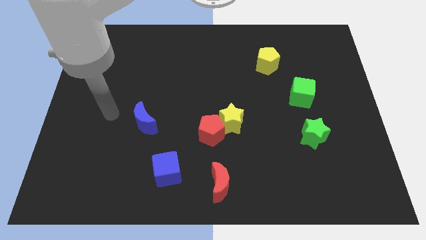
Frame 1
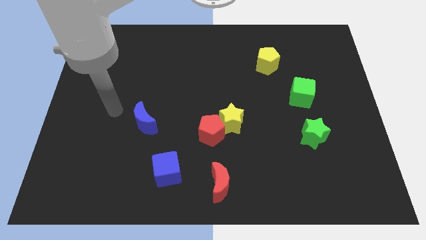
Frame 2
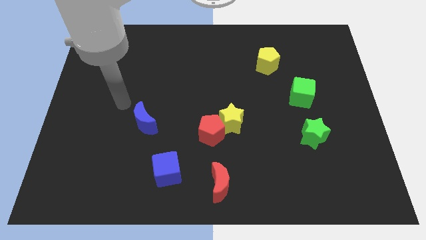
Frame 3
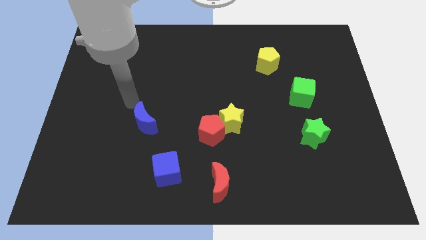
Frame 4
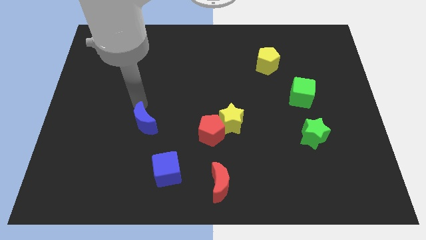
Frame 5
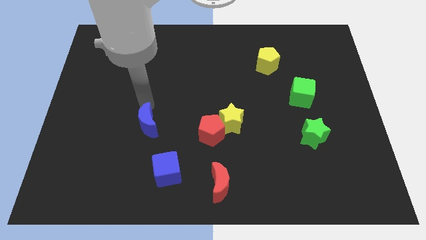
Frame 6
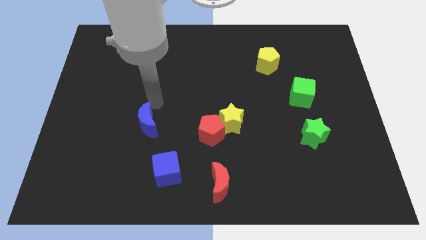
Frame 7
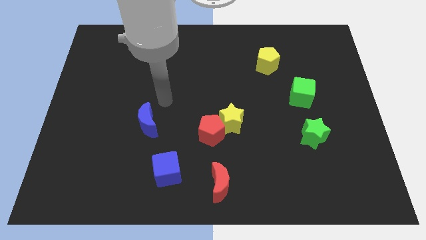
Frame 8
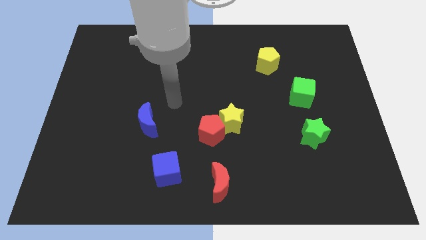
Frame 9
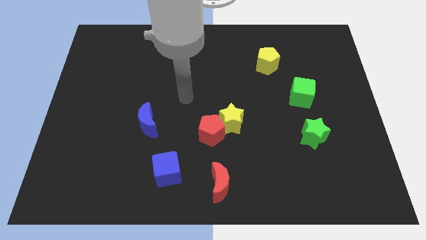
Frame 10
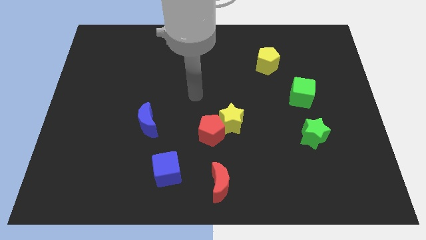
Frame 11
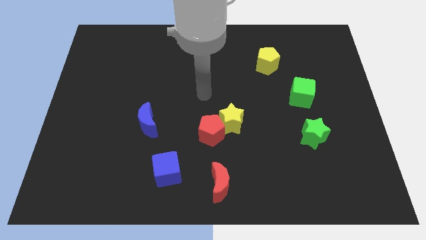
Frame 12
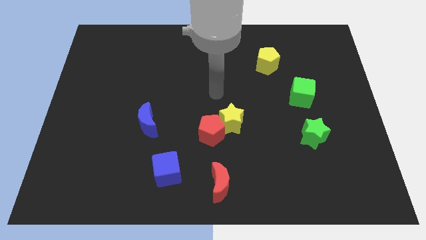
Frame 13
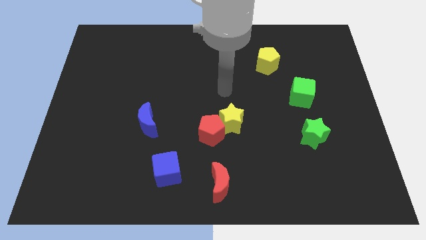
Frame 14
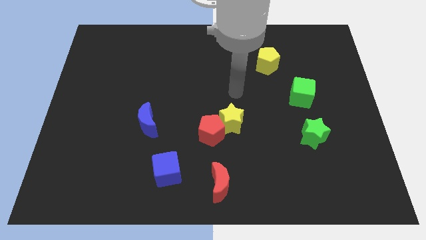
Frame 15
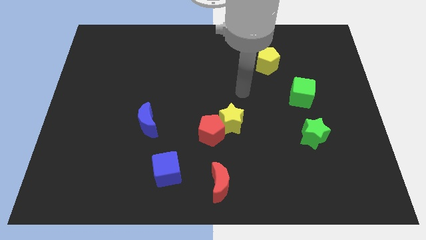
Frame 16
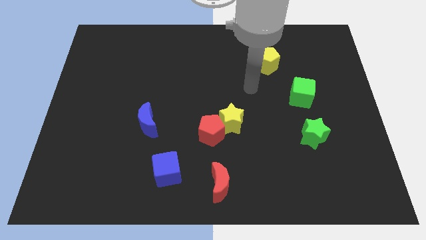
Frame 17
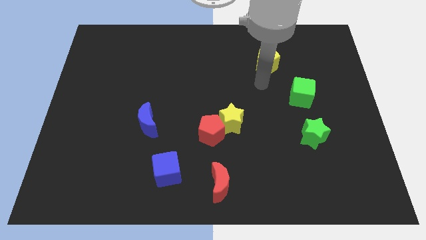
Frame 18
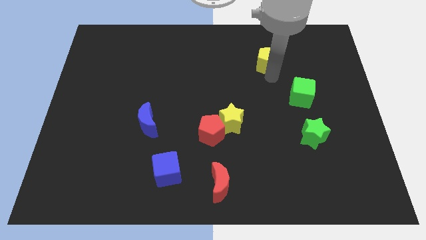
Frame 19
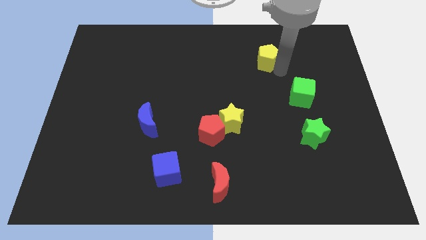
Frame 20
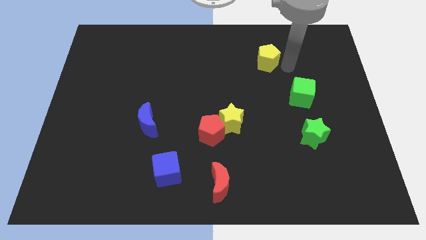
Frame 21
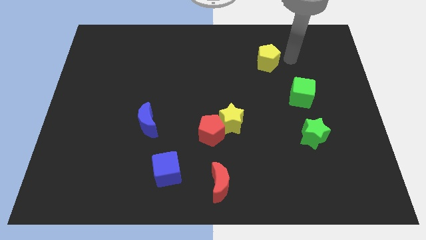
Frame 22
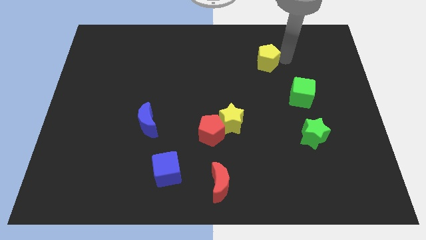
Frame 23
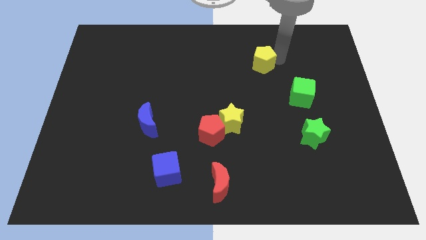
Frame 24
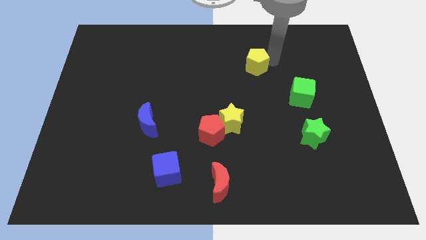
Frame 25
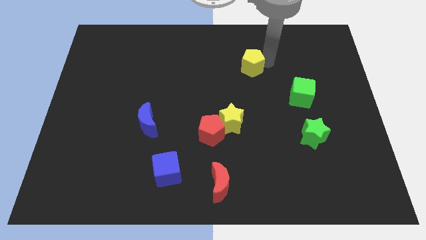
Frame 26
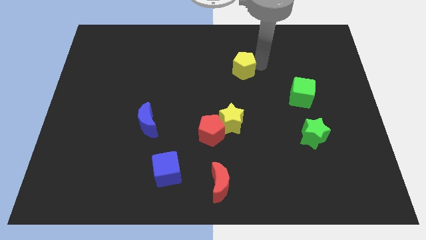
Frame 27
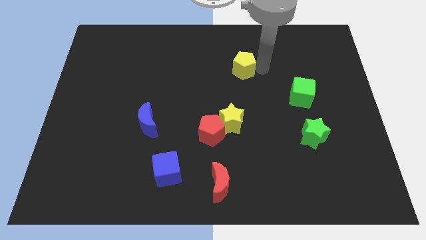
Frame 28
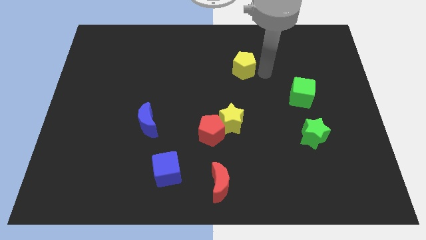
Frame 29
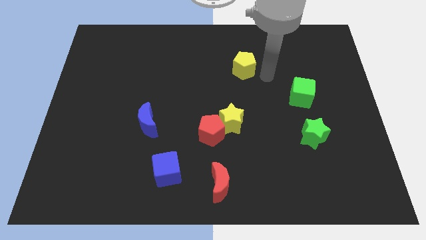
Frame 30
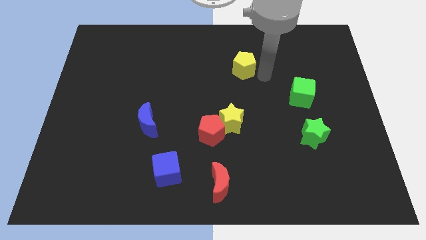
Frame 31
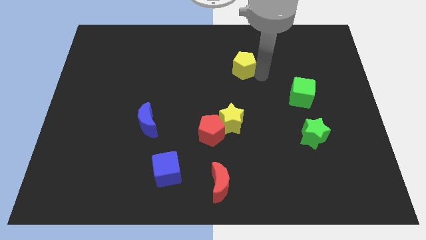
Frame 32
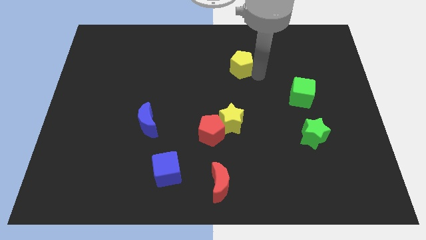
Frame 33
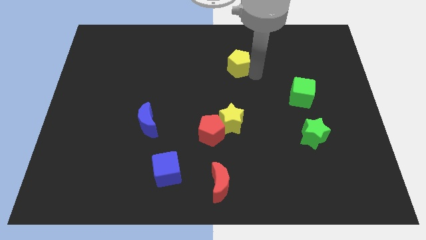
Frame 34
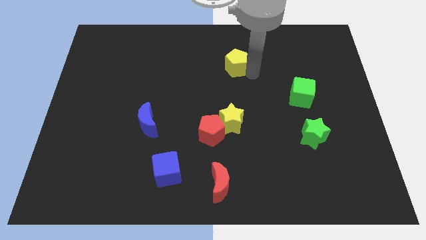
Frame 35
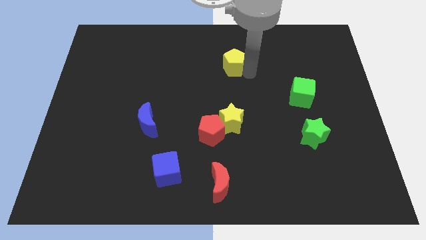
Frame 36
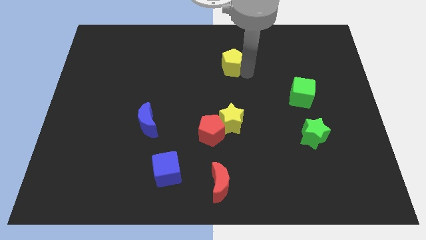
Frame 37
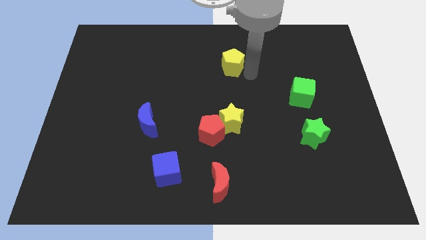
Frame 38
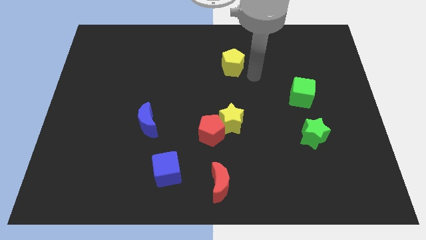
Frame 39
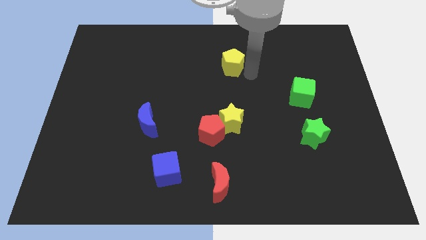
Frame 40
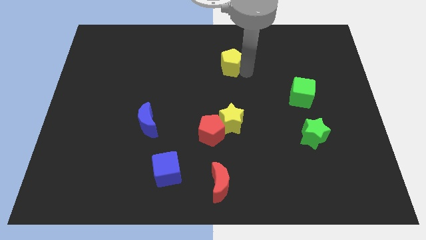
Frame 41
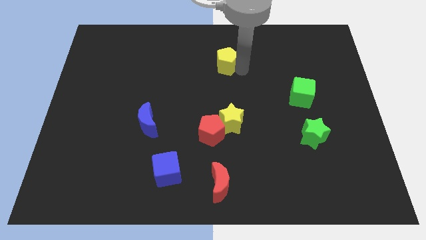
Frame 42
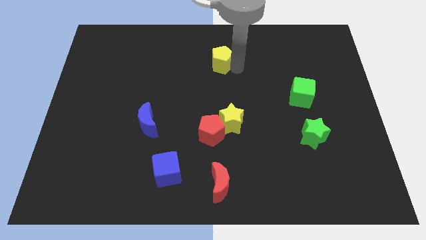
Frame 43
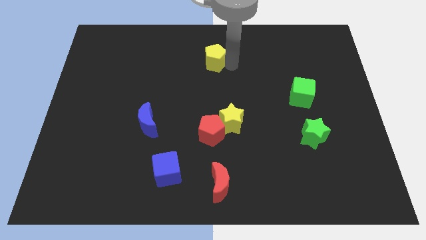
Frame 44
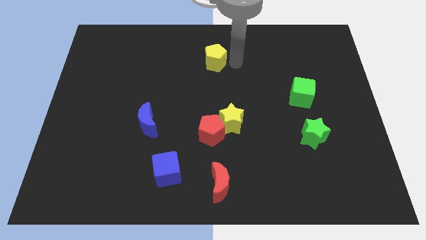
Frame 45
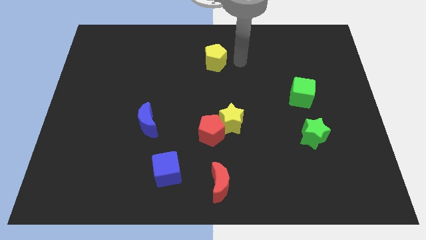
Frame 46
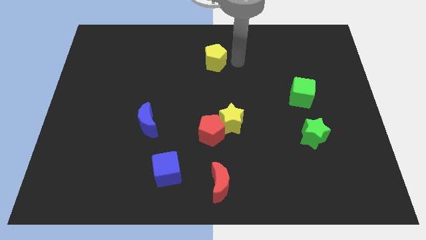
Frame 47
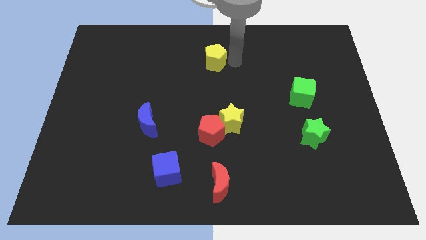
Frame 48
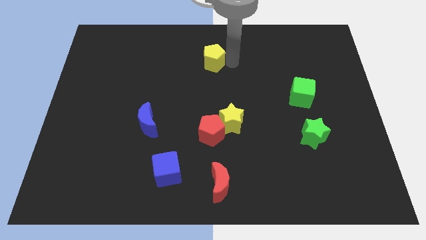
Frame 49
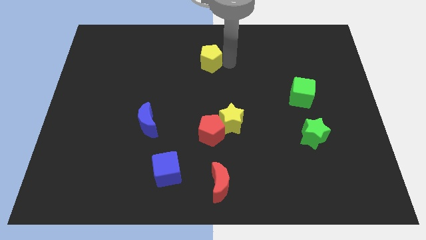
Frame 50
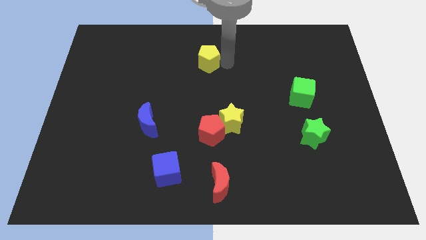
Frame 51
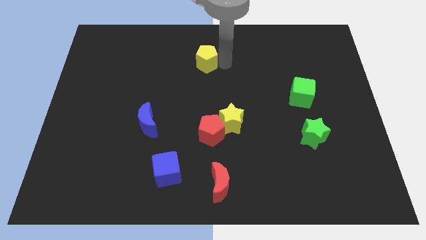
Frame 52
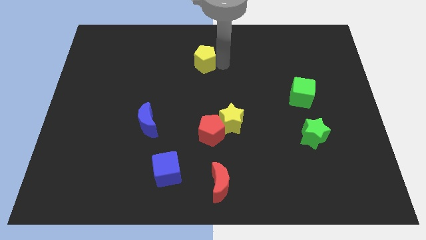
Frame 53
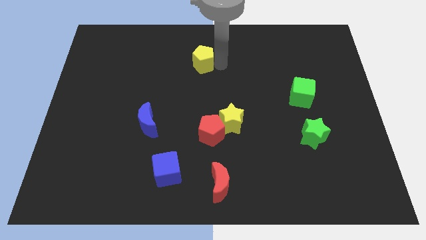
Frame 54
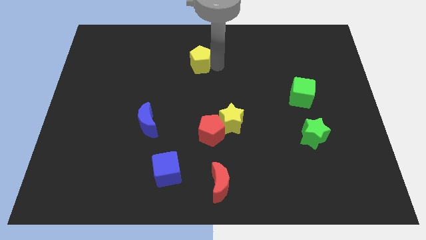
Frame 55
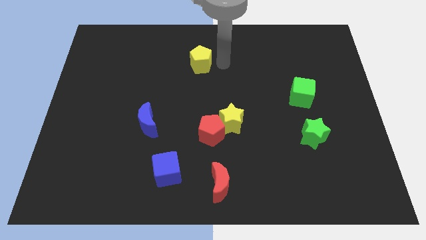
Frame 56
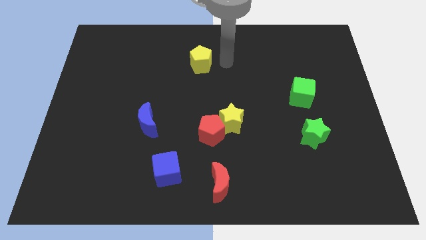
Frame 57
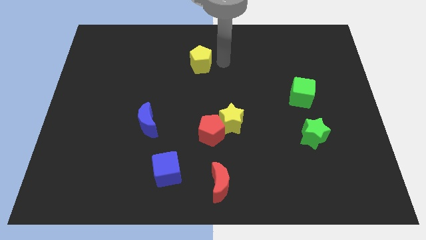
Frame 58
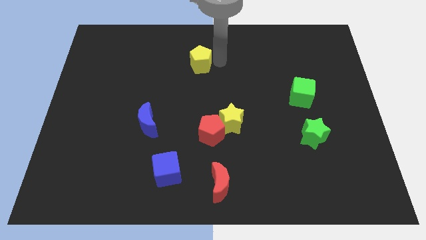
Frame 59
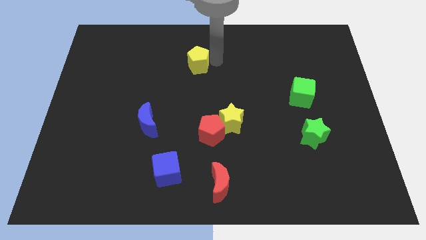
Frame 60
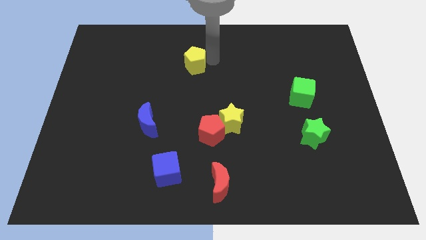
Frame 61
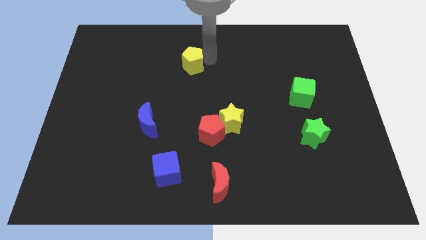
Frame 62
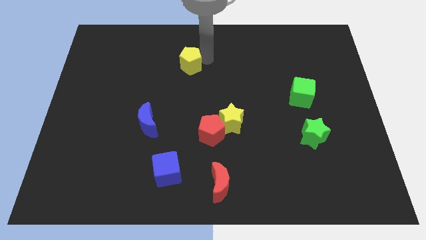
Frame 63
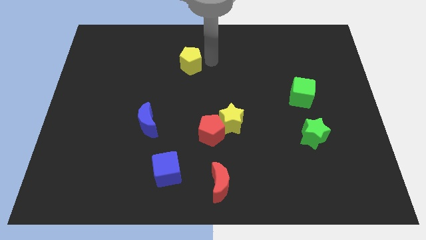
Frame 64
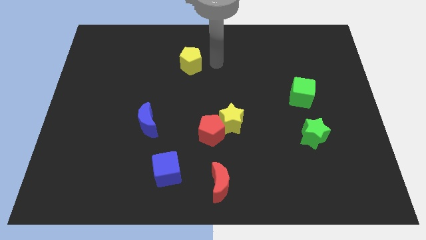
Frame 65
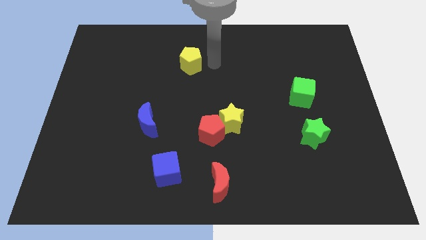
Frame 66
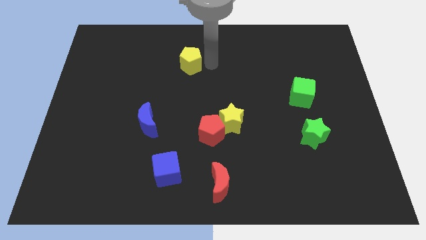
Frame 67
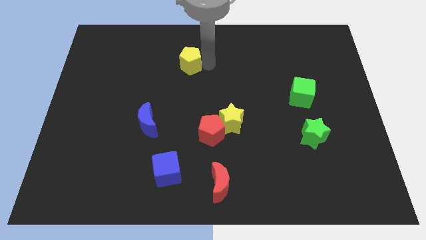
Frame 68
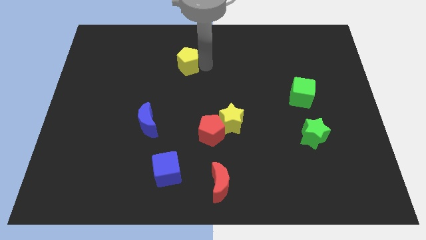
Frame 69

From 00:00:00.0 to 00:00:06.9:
slide the yellow pentagon to the left
